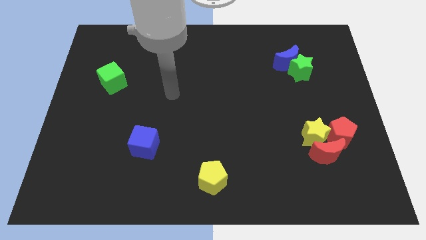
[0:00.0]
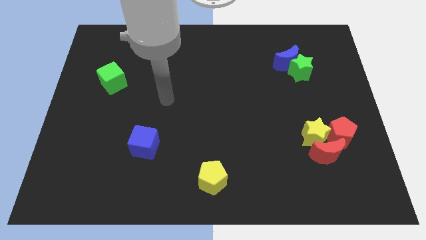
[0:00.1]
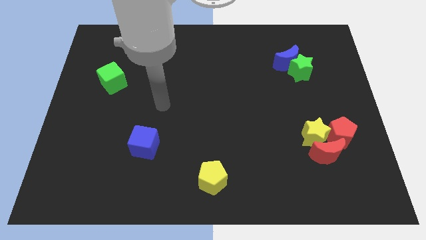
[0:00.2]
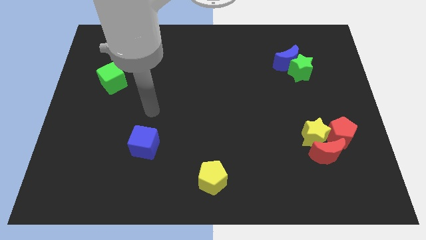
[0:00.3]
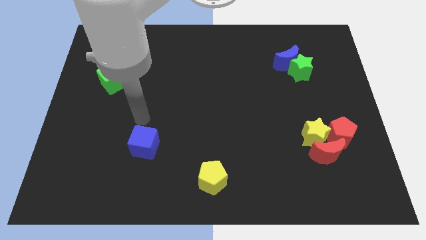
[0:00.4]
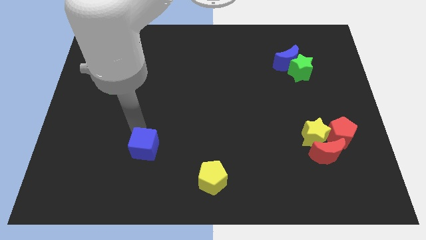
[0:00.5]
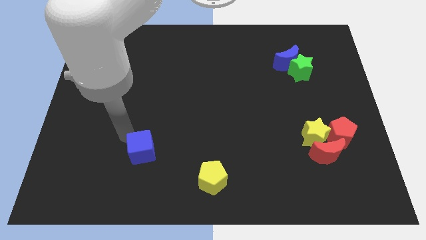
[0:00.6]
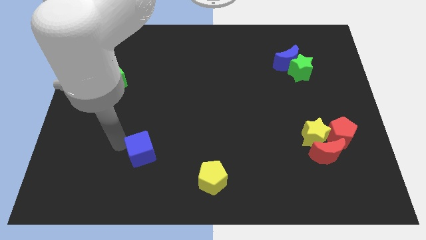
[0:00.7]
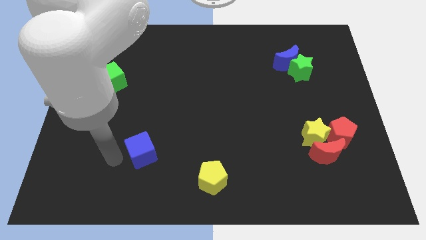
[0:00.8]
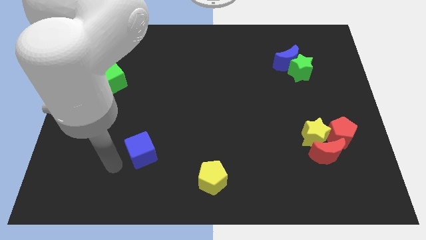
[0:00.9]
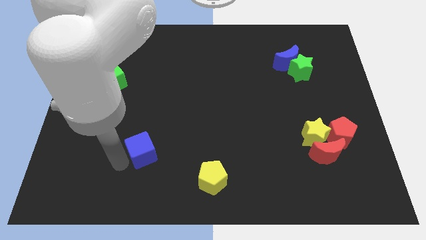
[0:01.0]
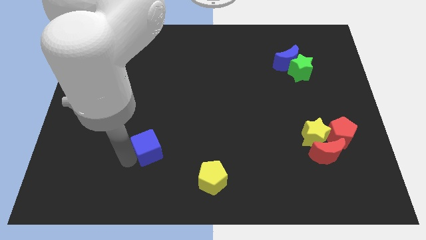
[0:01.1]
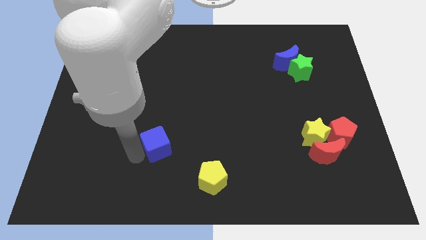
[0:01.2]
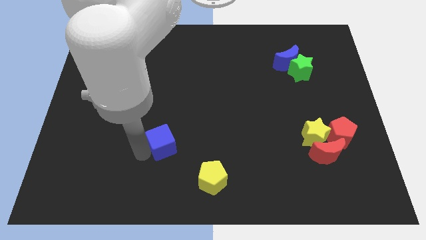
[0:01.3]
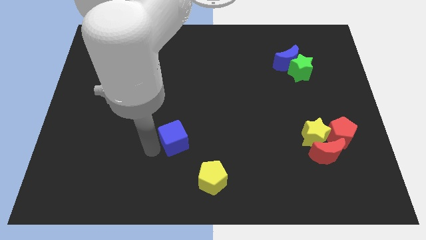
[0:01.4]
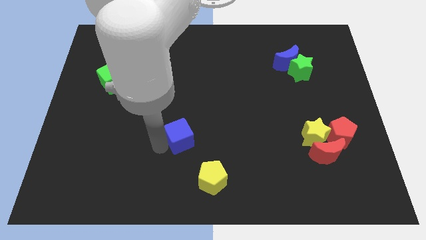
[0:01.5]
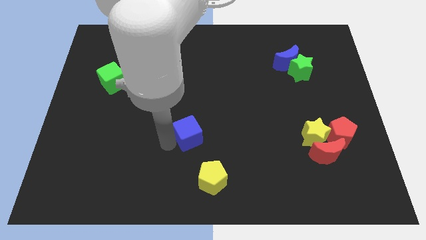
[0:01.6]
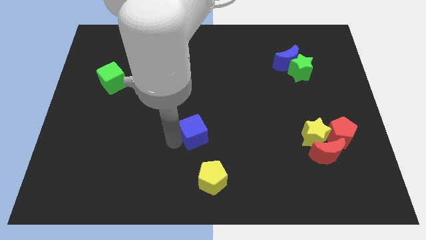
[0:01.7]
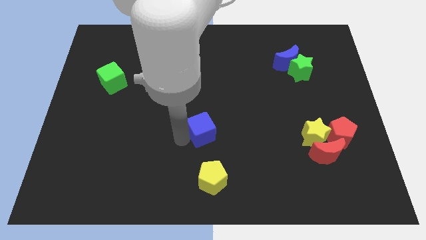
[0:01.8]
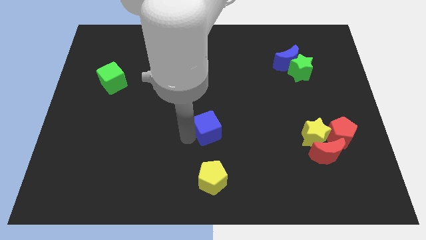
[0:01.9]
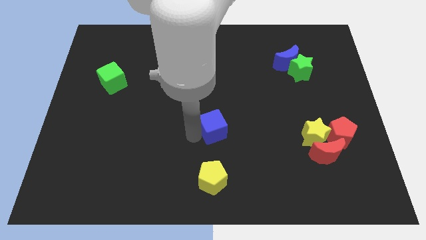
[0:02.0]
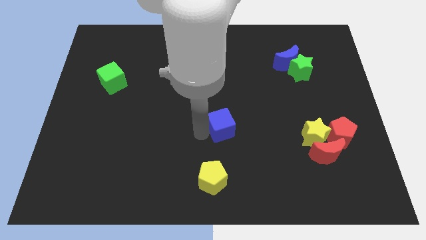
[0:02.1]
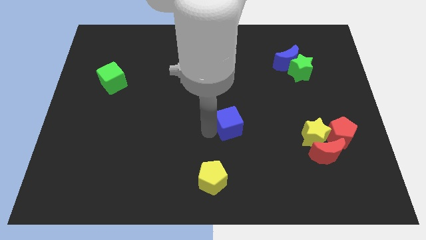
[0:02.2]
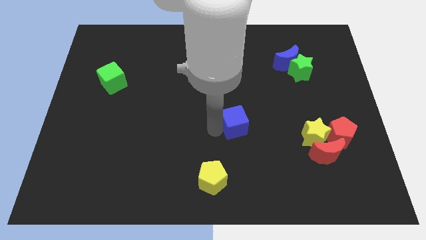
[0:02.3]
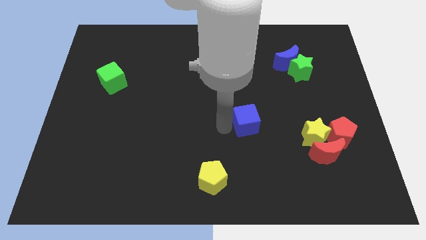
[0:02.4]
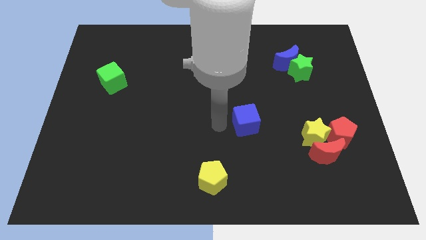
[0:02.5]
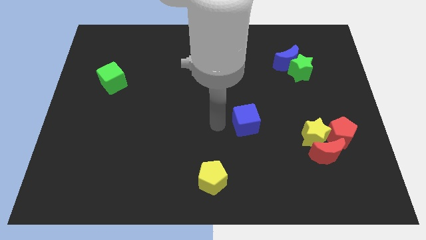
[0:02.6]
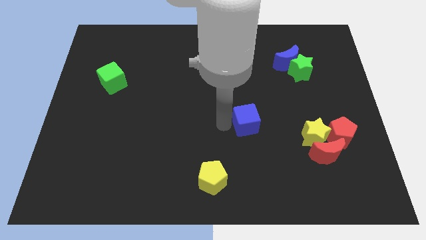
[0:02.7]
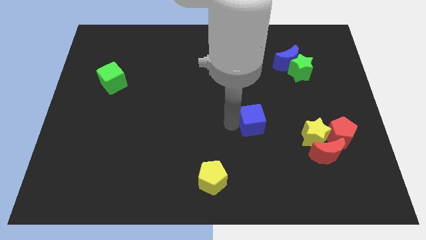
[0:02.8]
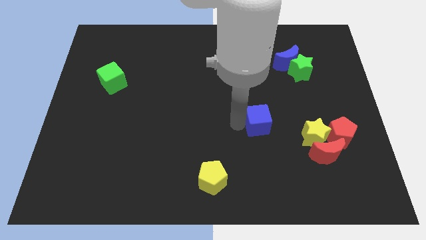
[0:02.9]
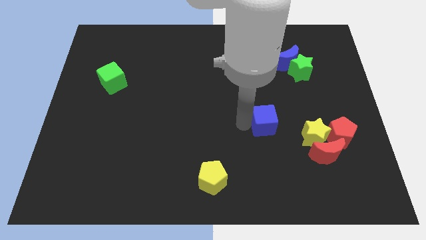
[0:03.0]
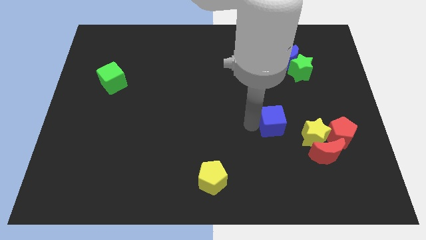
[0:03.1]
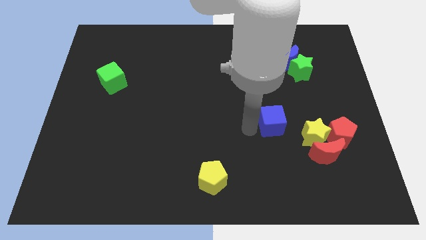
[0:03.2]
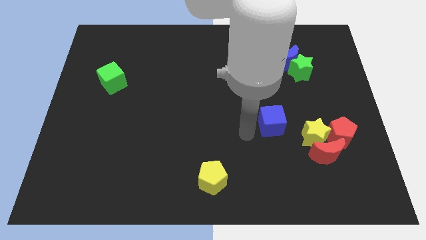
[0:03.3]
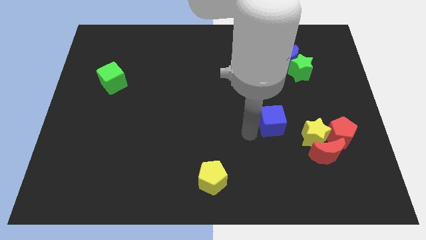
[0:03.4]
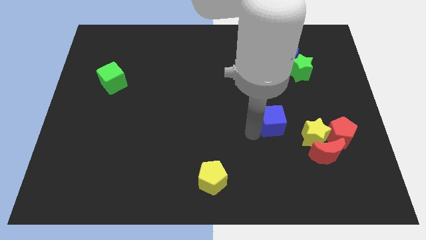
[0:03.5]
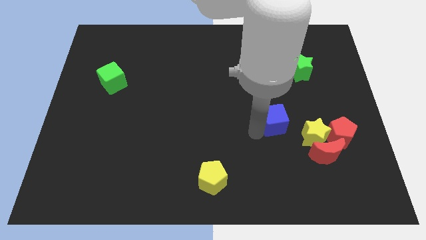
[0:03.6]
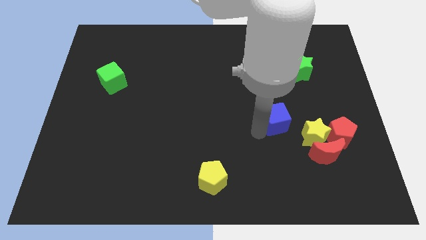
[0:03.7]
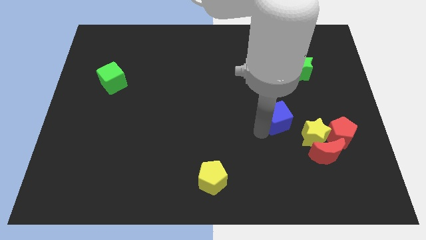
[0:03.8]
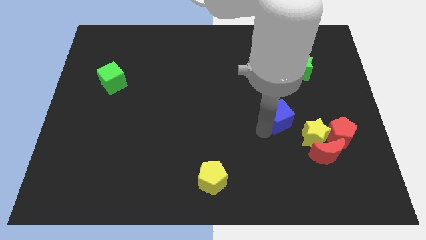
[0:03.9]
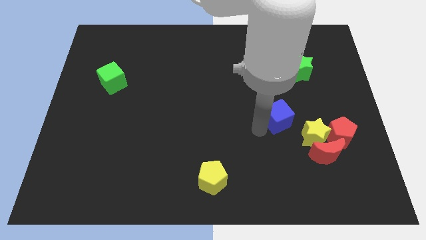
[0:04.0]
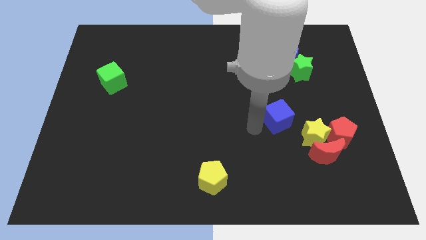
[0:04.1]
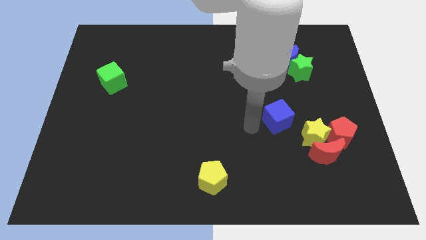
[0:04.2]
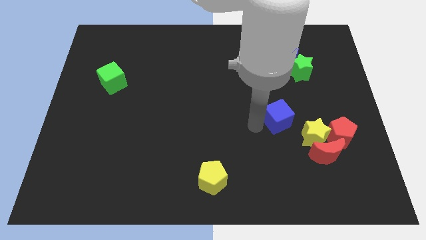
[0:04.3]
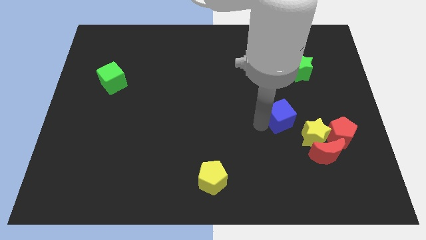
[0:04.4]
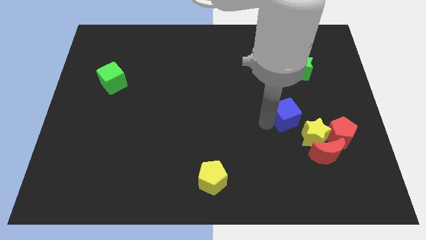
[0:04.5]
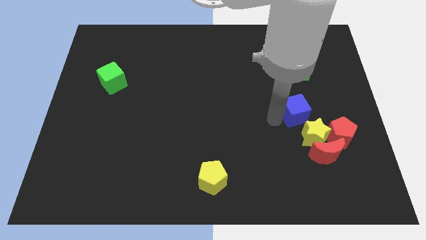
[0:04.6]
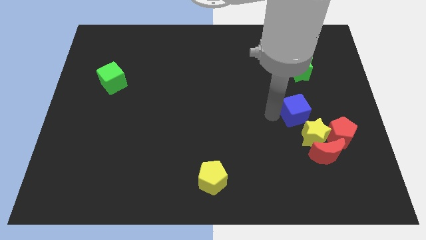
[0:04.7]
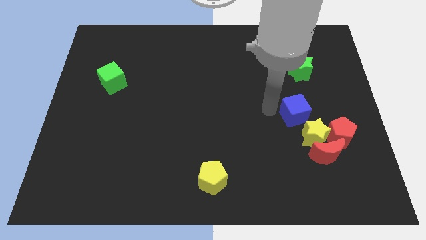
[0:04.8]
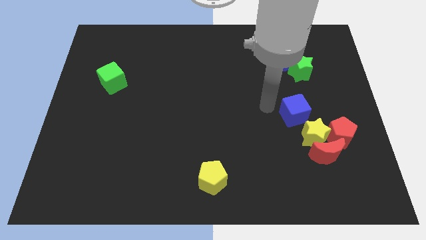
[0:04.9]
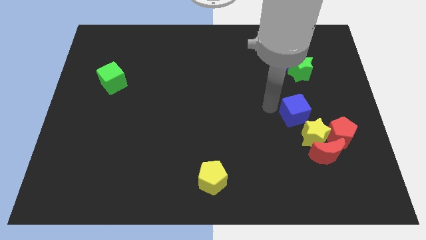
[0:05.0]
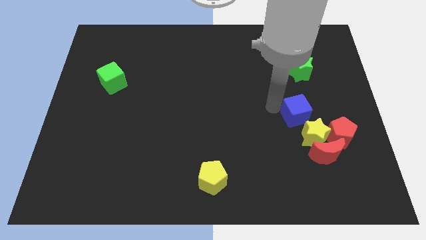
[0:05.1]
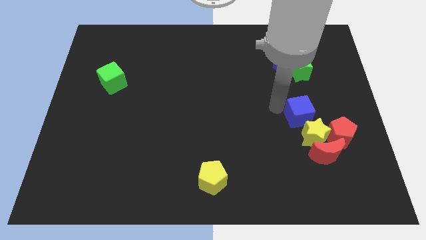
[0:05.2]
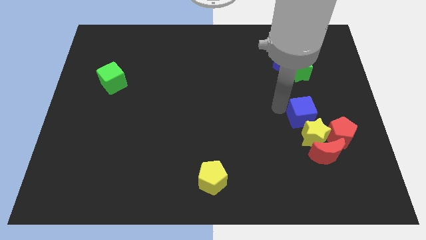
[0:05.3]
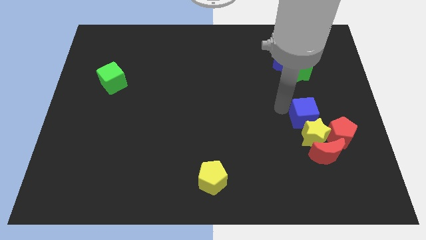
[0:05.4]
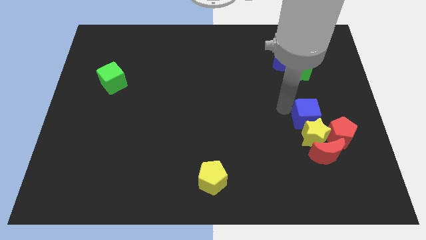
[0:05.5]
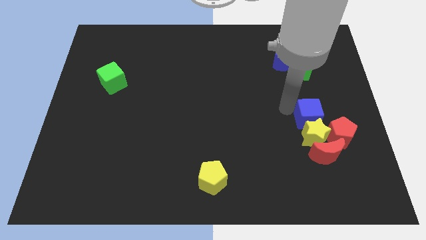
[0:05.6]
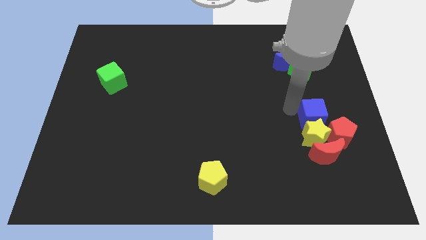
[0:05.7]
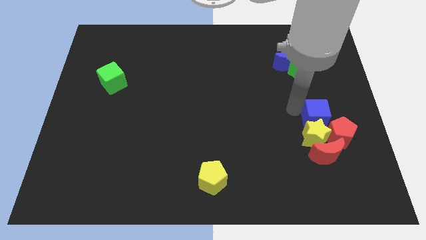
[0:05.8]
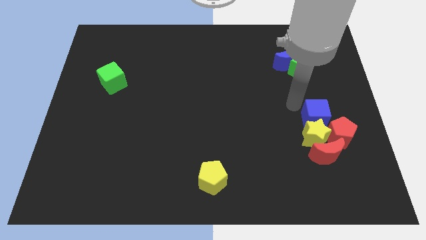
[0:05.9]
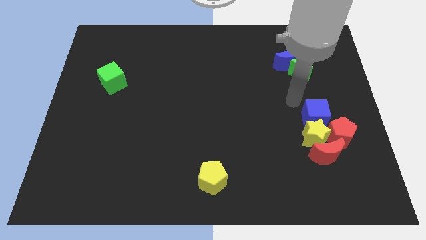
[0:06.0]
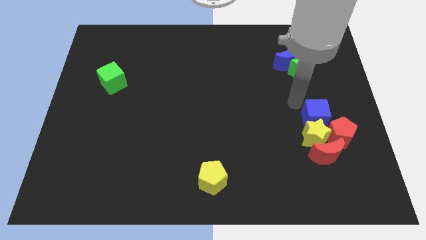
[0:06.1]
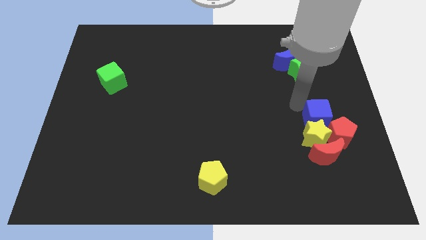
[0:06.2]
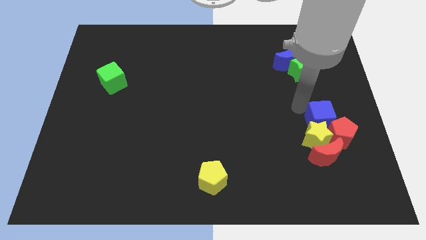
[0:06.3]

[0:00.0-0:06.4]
slide the blue cube next to the red pentagon

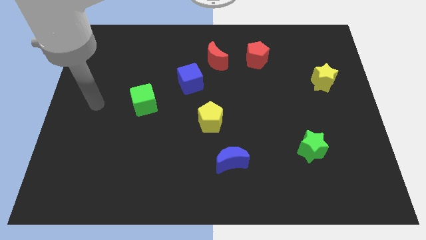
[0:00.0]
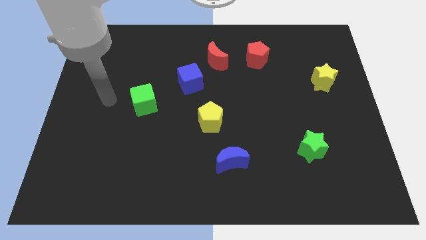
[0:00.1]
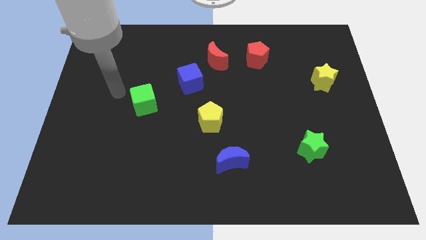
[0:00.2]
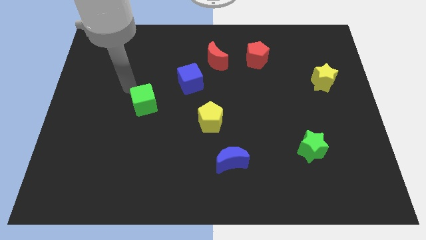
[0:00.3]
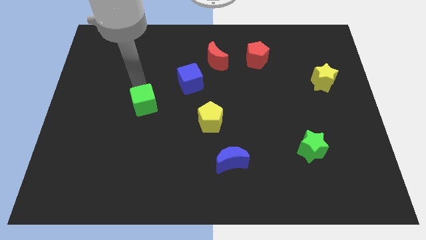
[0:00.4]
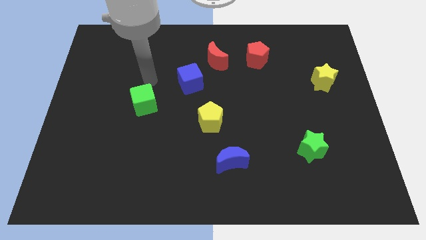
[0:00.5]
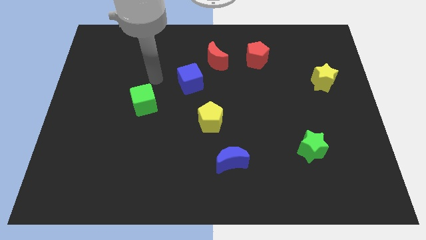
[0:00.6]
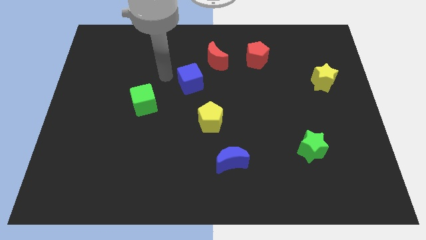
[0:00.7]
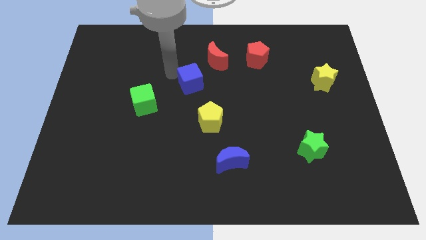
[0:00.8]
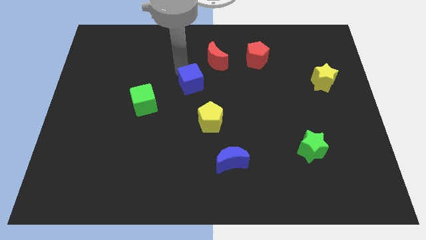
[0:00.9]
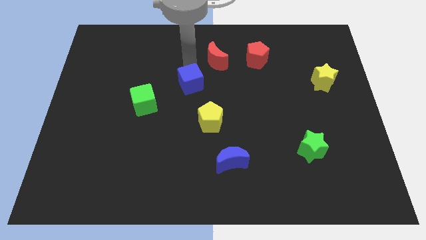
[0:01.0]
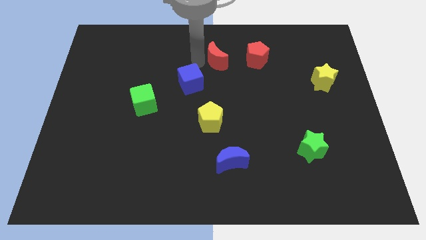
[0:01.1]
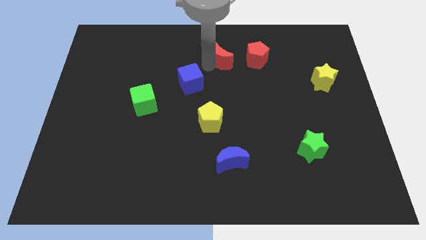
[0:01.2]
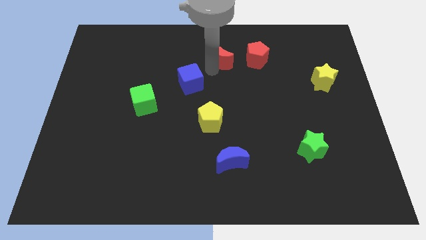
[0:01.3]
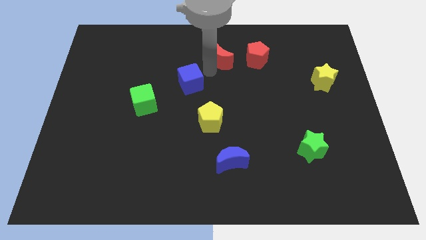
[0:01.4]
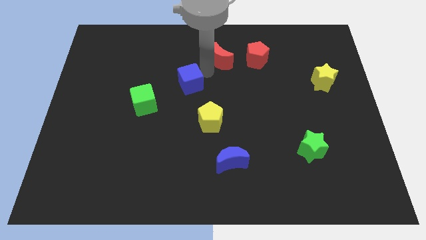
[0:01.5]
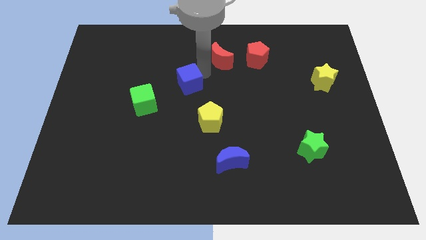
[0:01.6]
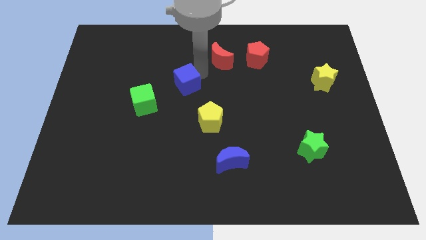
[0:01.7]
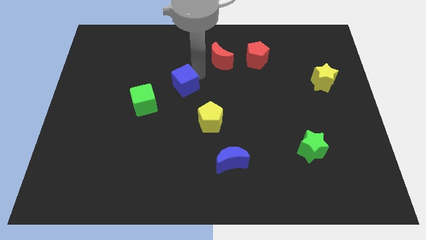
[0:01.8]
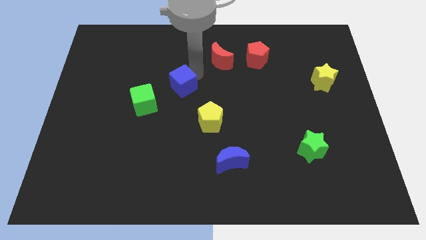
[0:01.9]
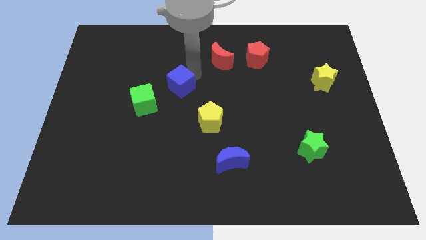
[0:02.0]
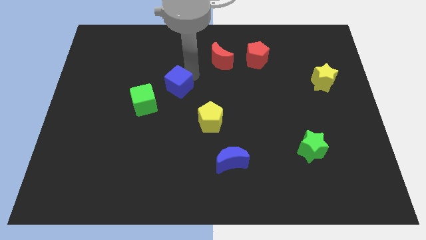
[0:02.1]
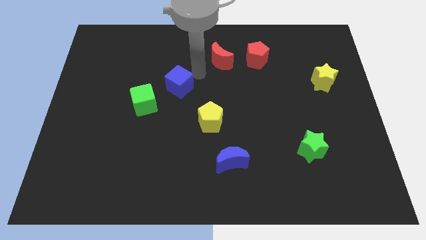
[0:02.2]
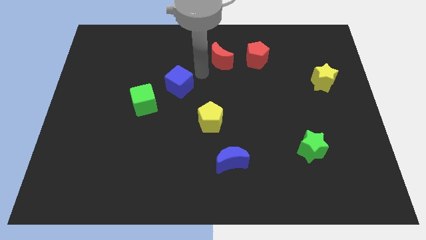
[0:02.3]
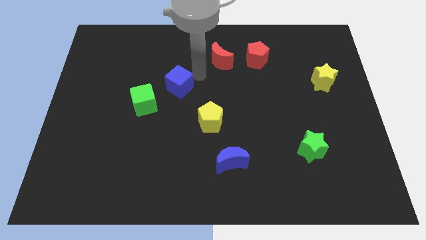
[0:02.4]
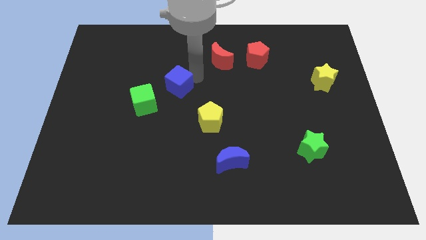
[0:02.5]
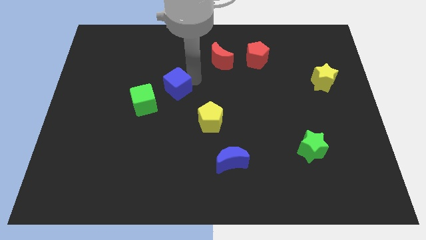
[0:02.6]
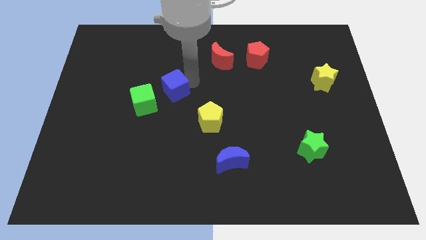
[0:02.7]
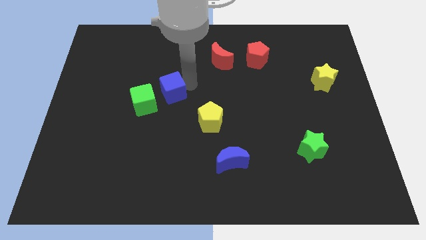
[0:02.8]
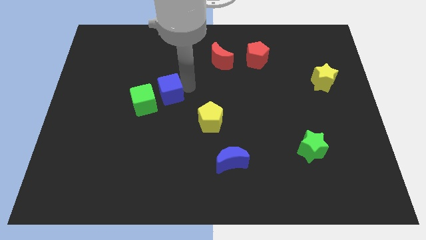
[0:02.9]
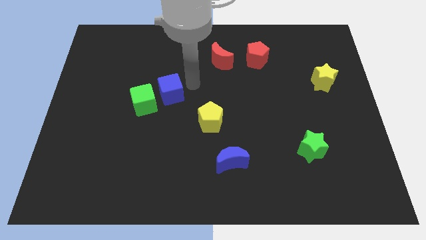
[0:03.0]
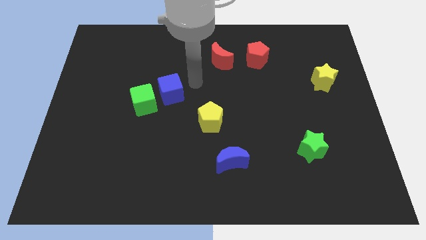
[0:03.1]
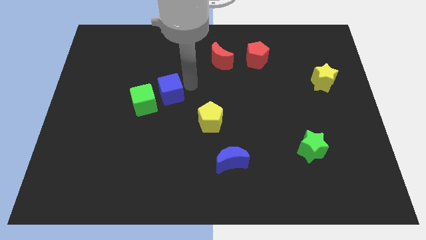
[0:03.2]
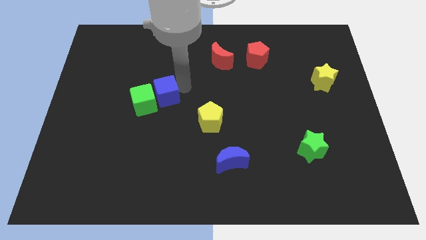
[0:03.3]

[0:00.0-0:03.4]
push the blue cube next to the green cube
